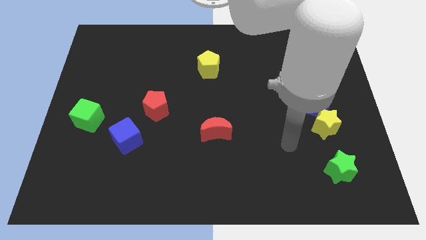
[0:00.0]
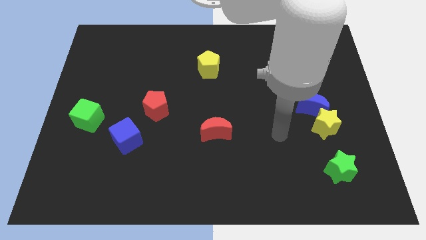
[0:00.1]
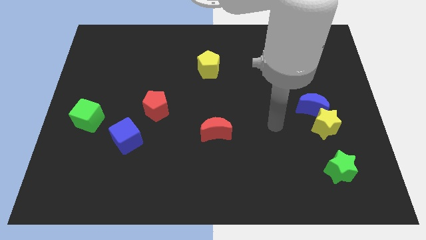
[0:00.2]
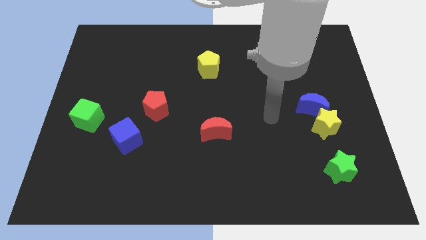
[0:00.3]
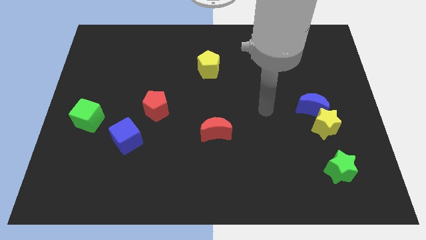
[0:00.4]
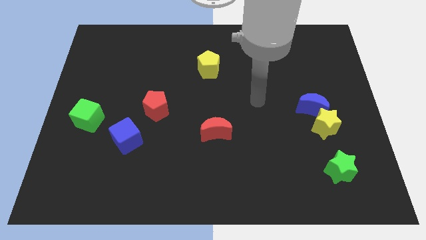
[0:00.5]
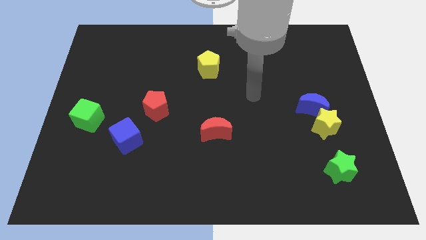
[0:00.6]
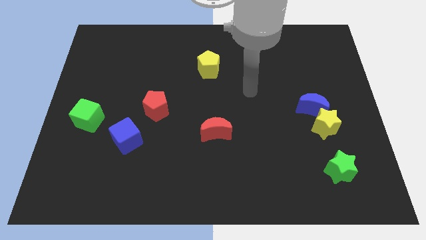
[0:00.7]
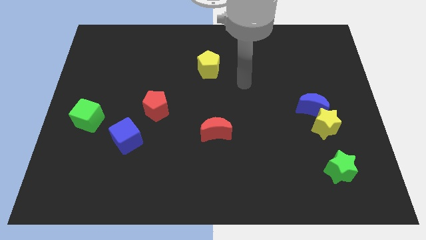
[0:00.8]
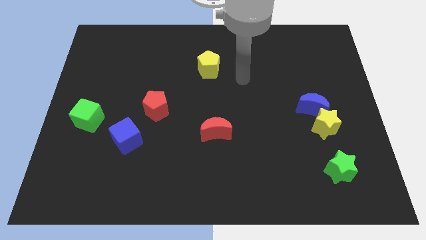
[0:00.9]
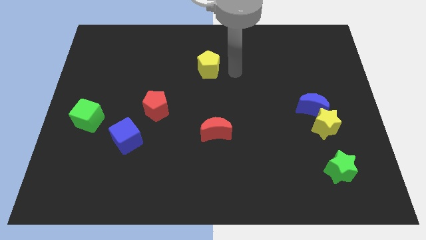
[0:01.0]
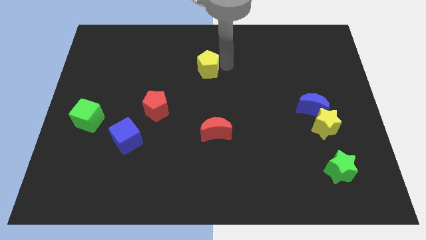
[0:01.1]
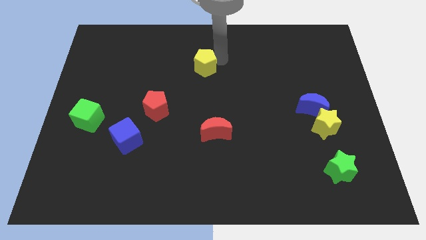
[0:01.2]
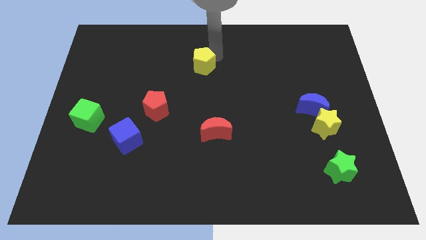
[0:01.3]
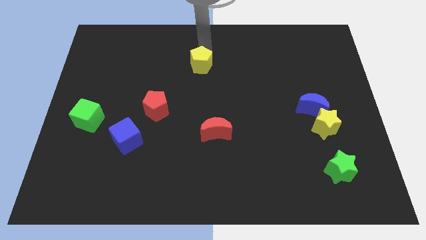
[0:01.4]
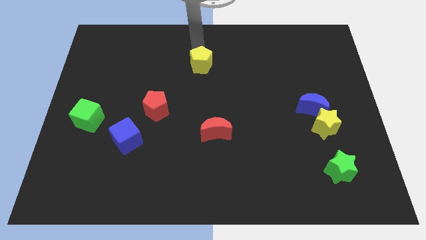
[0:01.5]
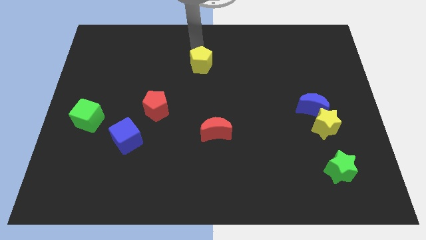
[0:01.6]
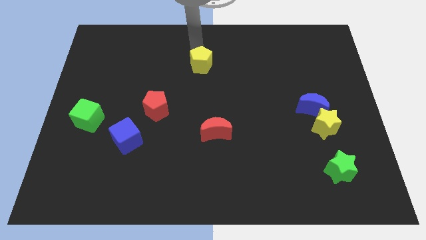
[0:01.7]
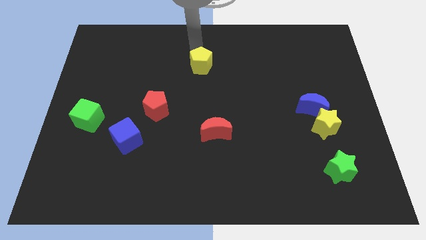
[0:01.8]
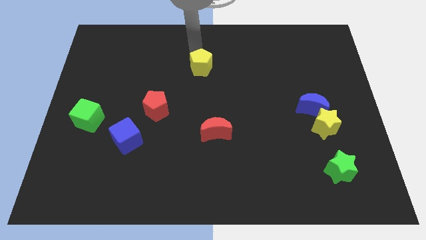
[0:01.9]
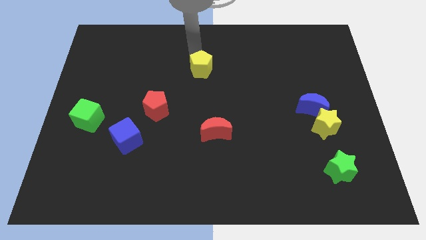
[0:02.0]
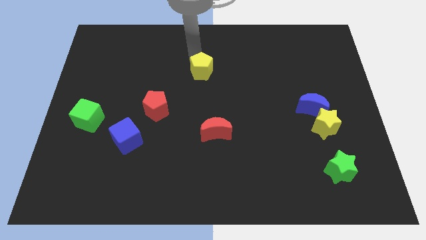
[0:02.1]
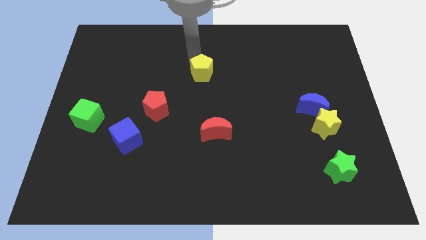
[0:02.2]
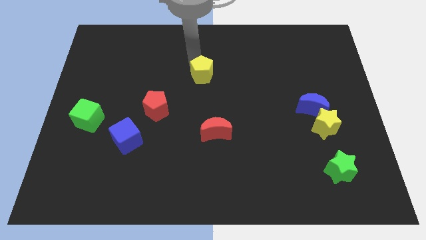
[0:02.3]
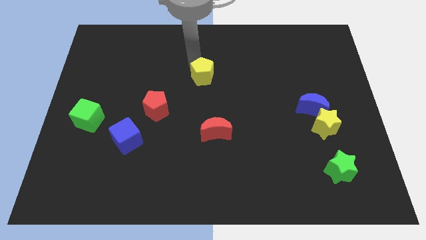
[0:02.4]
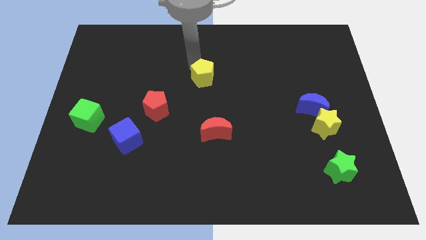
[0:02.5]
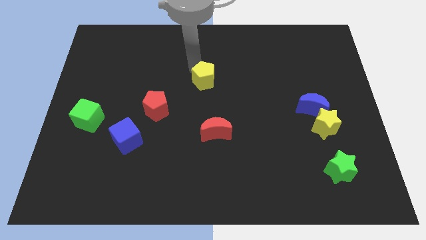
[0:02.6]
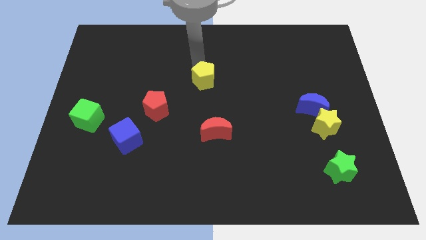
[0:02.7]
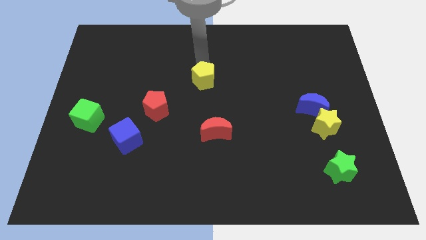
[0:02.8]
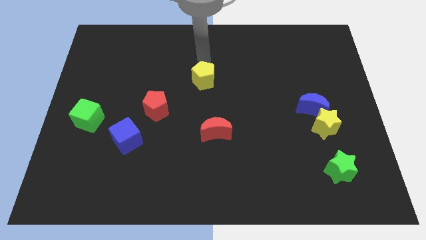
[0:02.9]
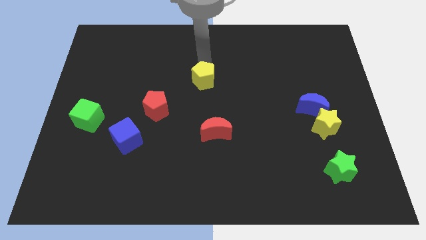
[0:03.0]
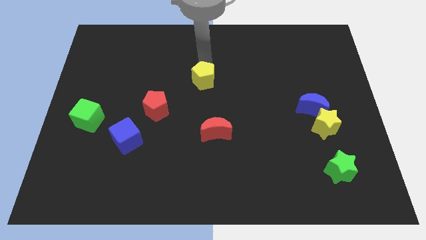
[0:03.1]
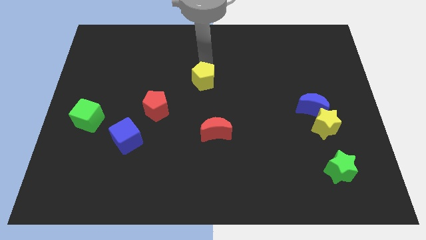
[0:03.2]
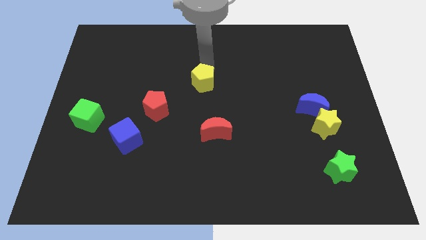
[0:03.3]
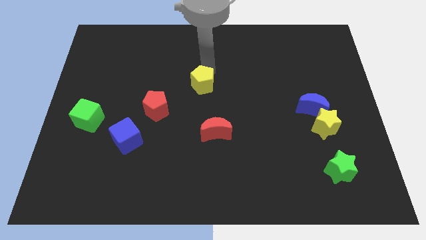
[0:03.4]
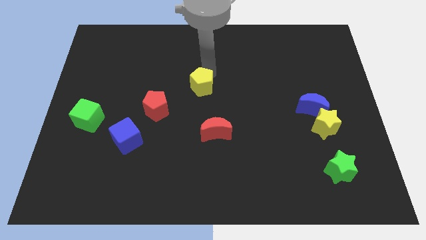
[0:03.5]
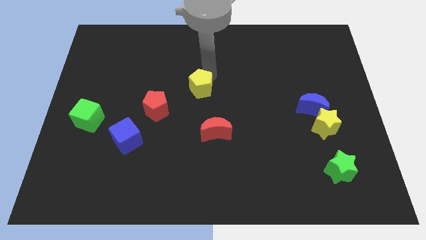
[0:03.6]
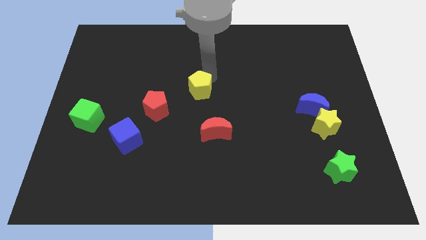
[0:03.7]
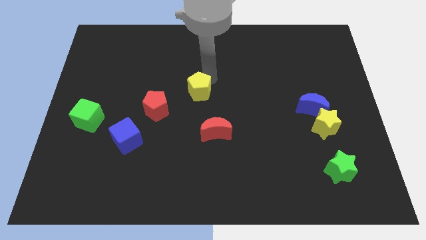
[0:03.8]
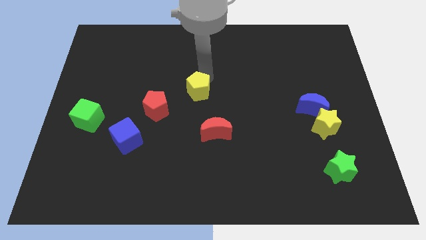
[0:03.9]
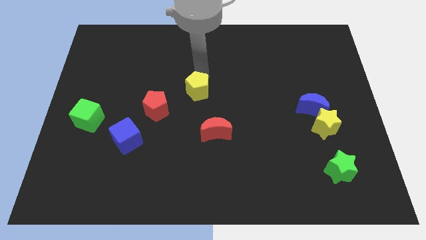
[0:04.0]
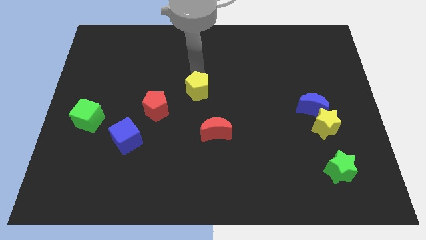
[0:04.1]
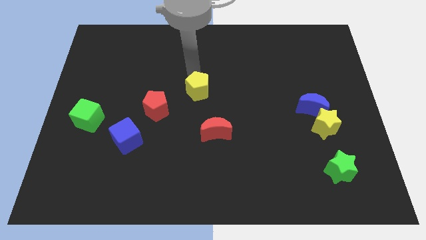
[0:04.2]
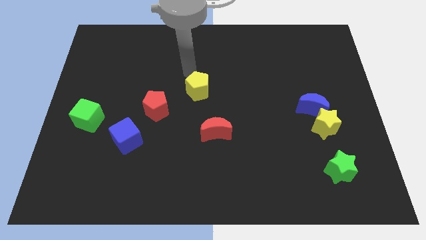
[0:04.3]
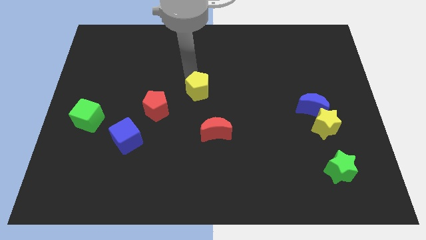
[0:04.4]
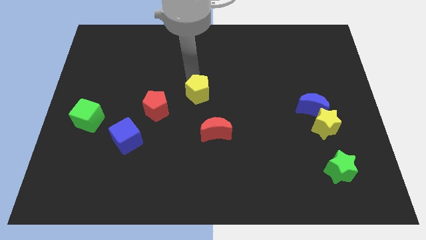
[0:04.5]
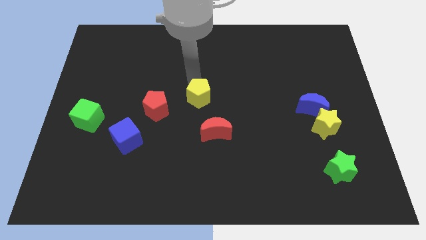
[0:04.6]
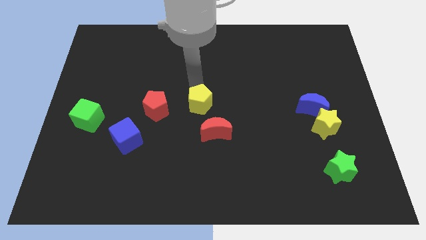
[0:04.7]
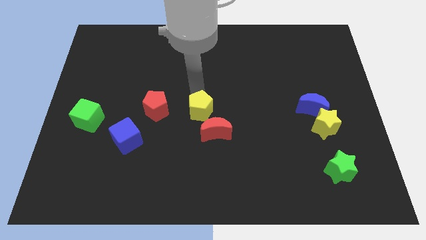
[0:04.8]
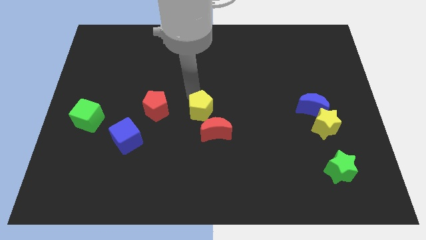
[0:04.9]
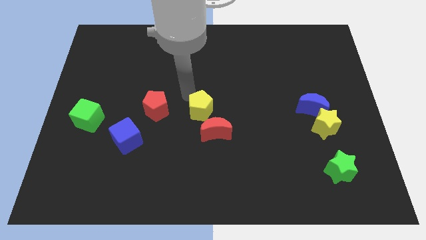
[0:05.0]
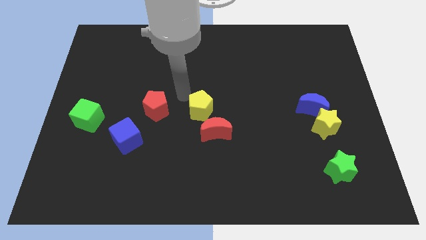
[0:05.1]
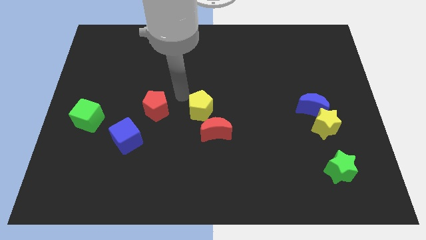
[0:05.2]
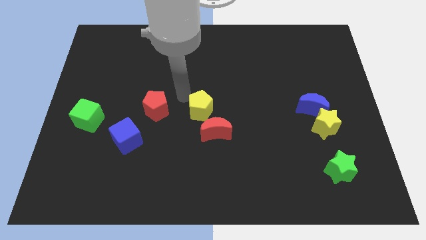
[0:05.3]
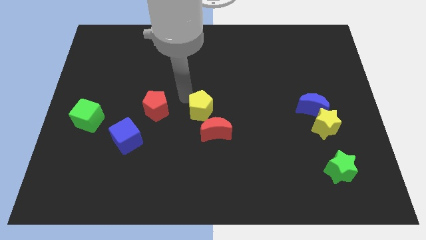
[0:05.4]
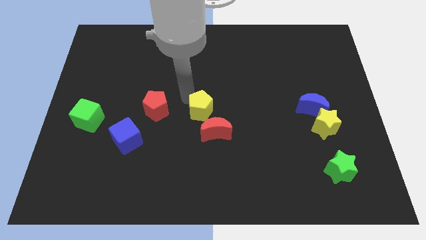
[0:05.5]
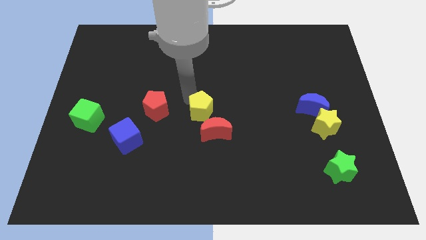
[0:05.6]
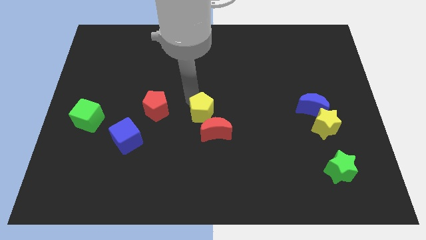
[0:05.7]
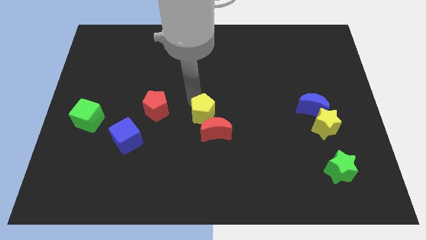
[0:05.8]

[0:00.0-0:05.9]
slide the yellow pentagon close to the red moon
